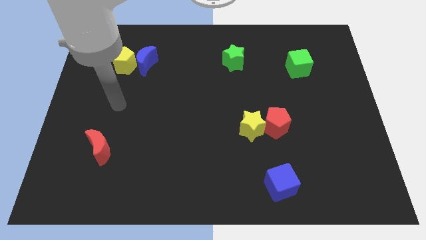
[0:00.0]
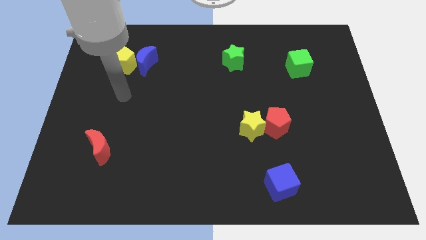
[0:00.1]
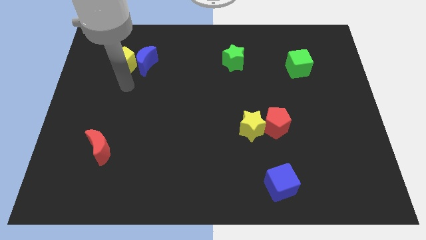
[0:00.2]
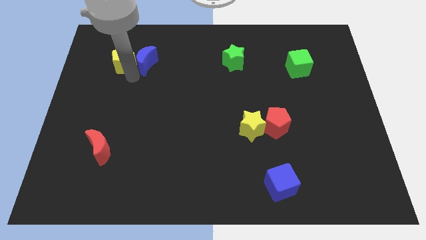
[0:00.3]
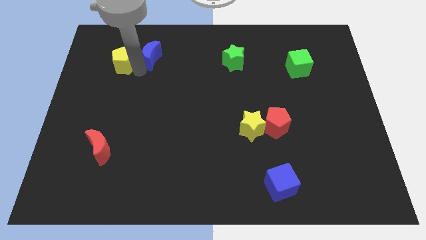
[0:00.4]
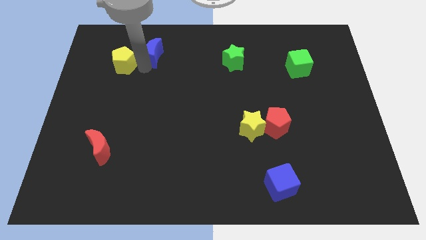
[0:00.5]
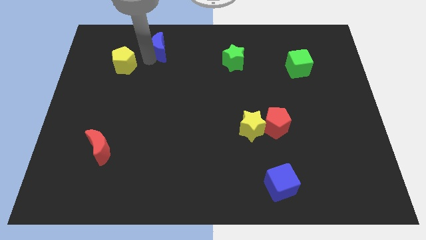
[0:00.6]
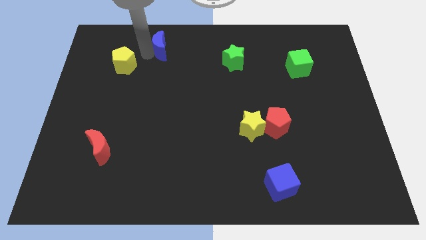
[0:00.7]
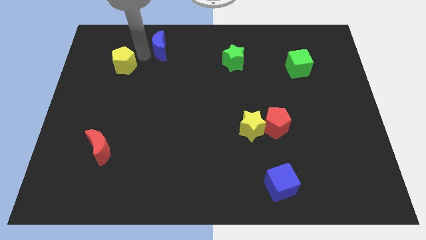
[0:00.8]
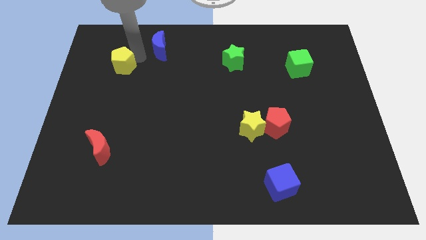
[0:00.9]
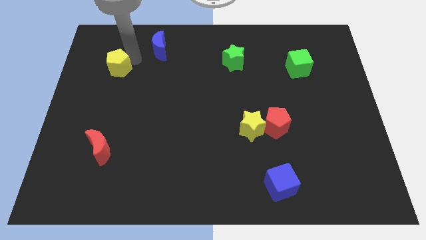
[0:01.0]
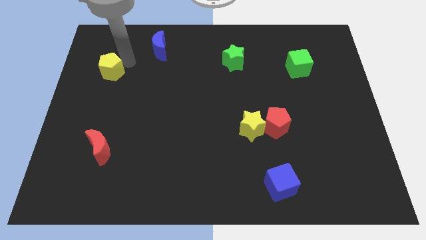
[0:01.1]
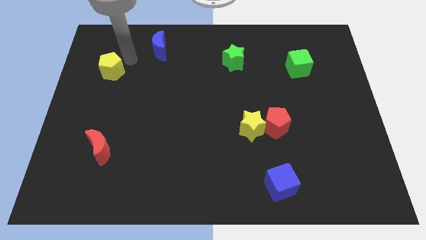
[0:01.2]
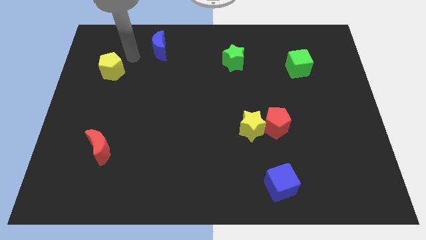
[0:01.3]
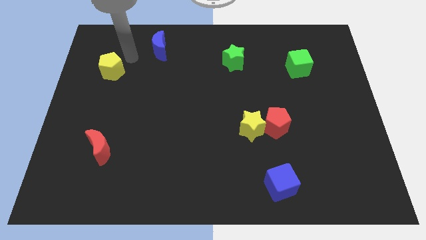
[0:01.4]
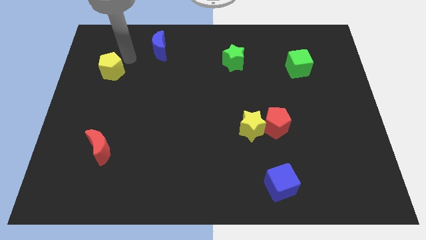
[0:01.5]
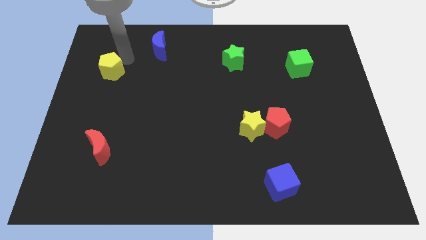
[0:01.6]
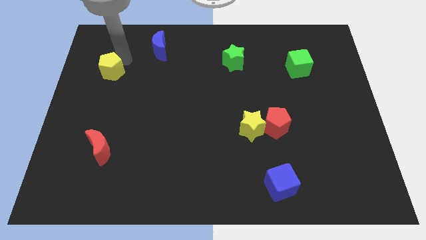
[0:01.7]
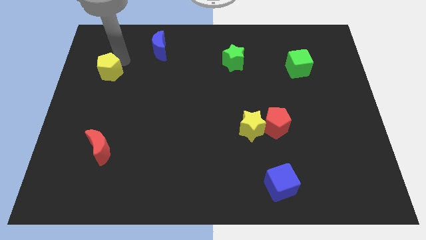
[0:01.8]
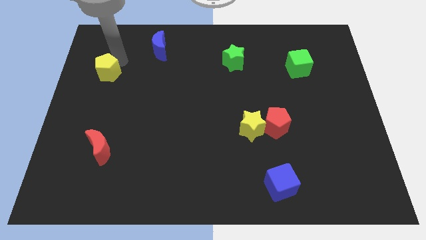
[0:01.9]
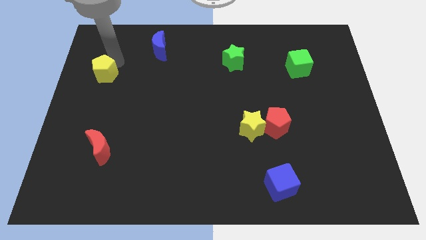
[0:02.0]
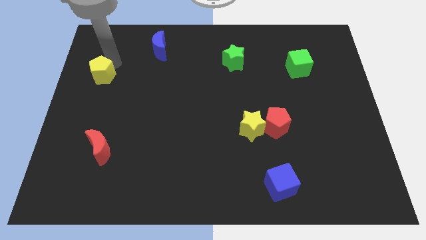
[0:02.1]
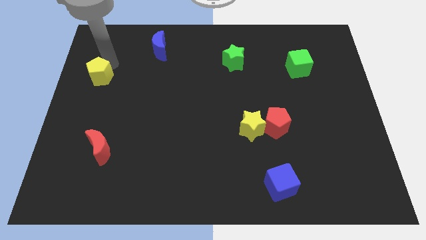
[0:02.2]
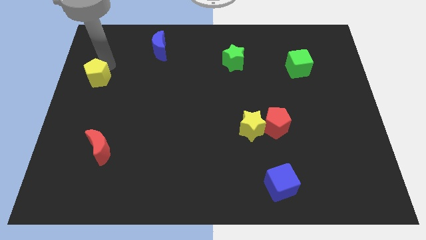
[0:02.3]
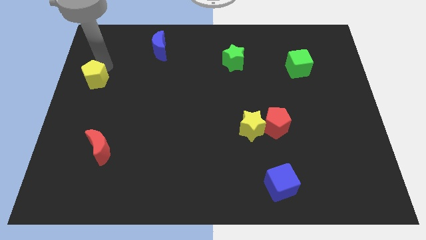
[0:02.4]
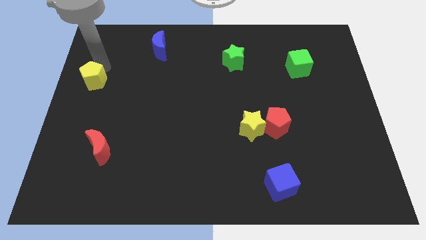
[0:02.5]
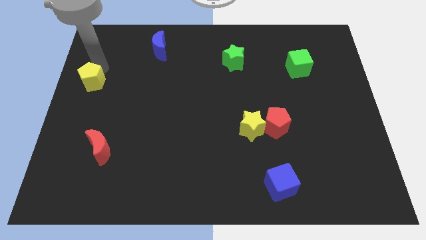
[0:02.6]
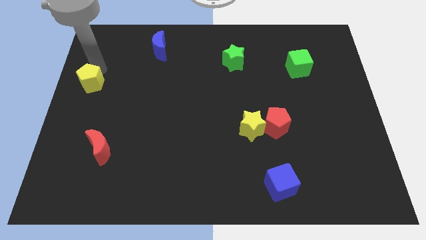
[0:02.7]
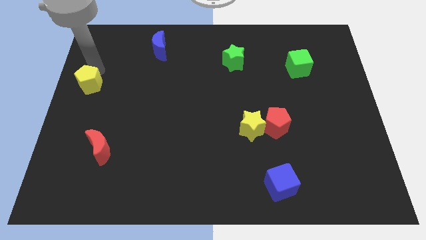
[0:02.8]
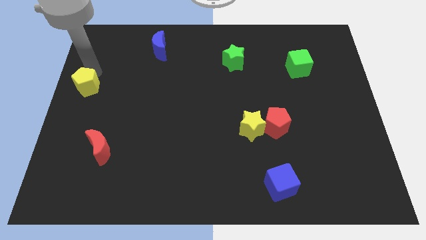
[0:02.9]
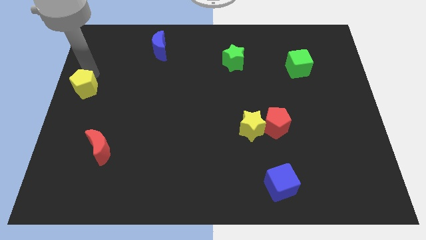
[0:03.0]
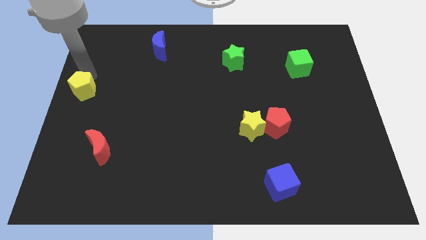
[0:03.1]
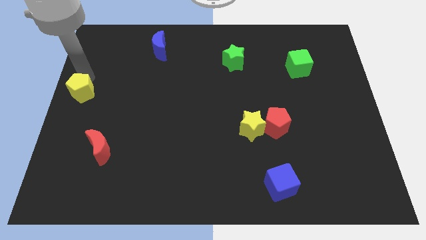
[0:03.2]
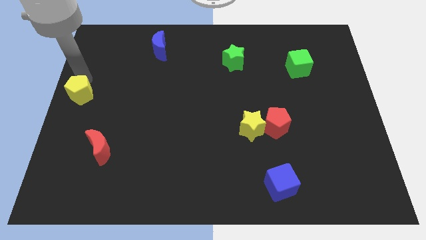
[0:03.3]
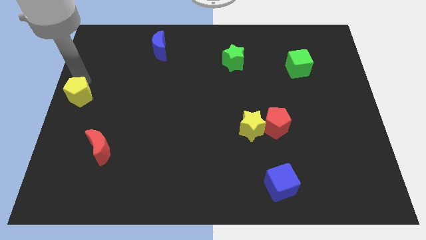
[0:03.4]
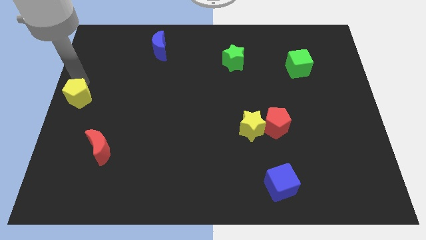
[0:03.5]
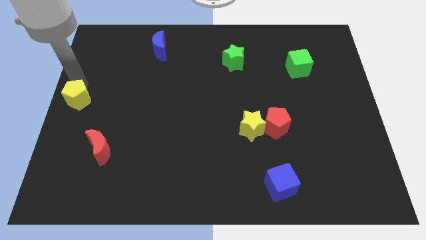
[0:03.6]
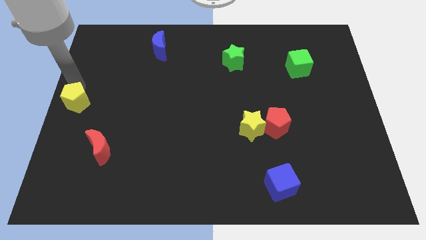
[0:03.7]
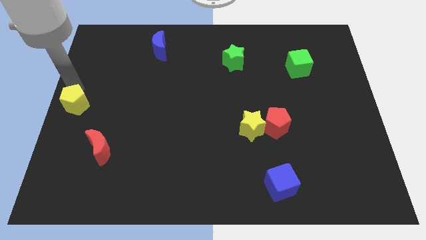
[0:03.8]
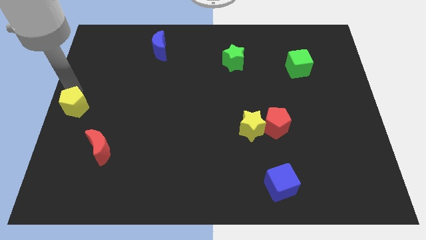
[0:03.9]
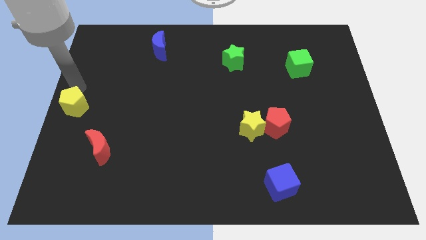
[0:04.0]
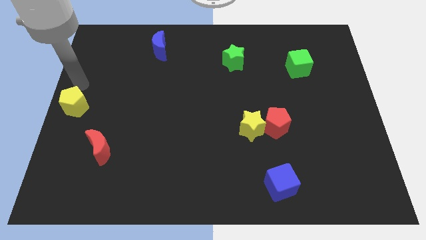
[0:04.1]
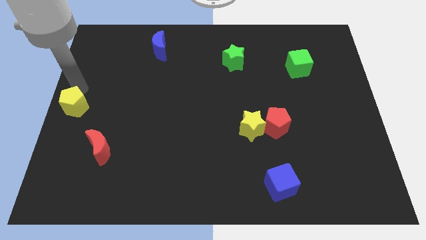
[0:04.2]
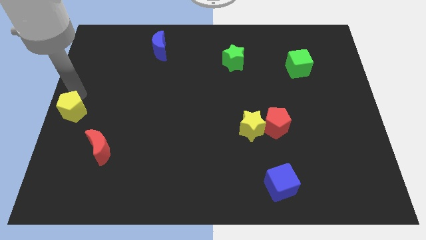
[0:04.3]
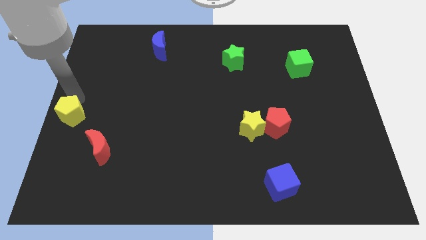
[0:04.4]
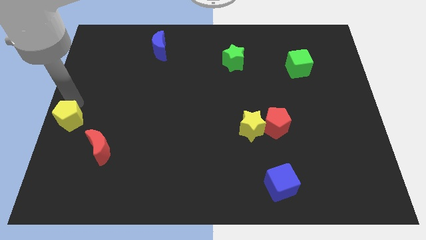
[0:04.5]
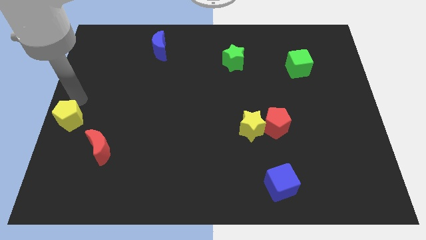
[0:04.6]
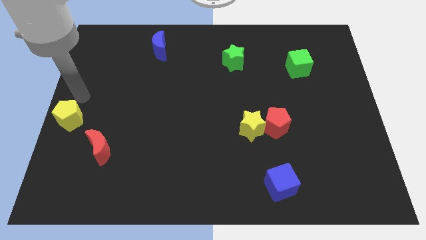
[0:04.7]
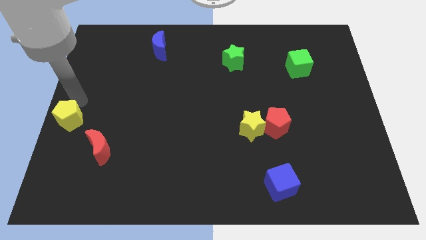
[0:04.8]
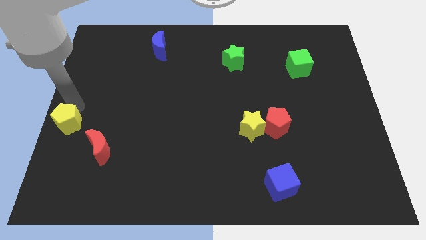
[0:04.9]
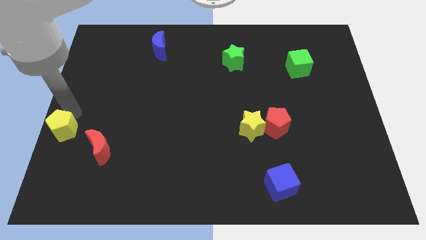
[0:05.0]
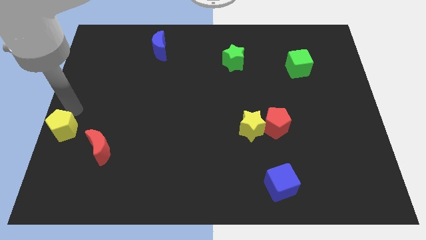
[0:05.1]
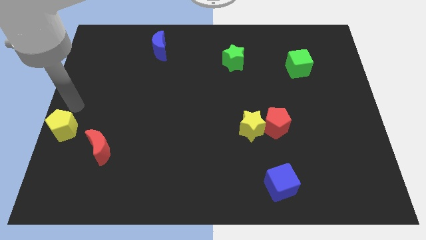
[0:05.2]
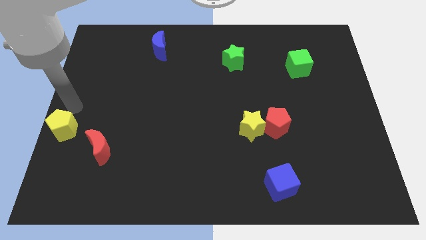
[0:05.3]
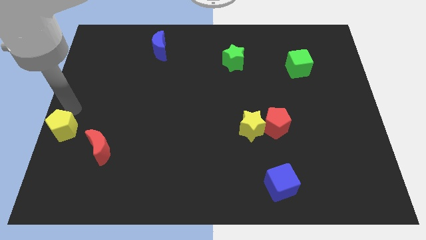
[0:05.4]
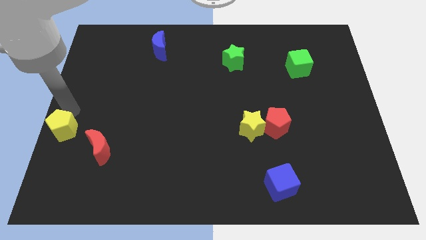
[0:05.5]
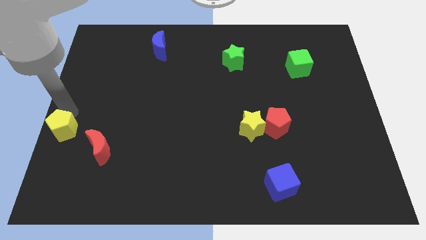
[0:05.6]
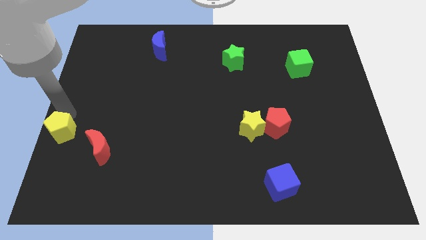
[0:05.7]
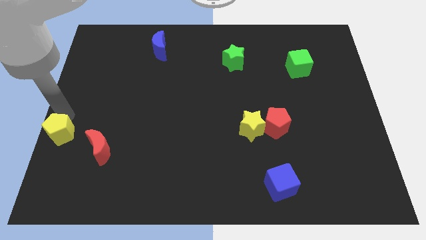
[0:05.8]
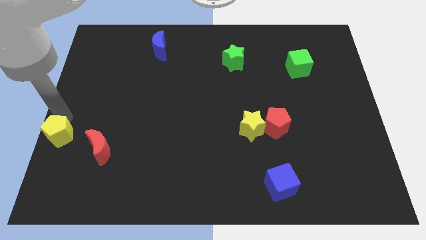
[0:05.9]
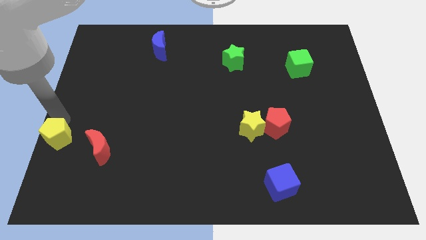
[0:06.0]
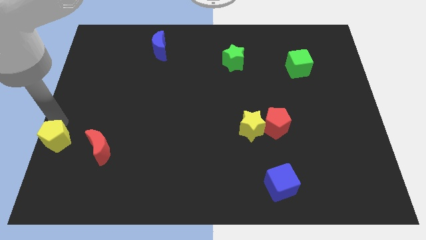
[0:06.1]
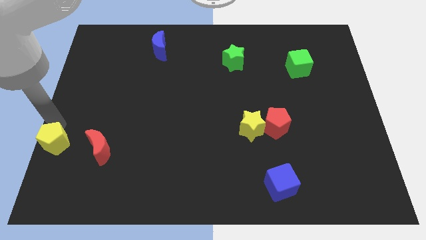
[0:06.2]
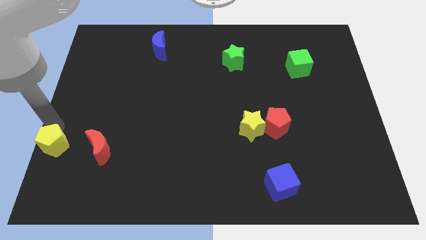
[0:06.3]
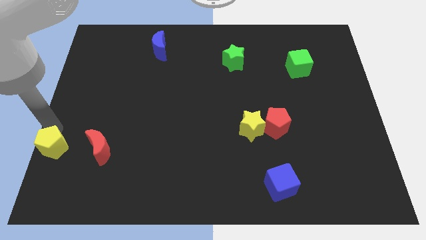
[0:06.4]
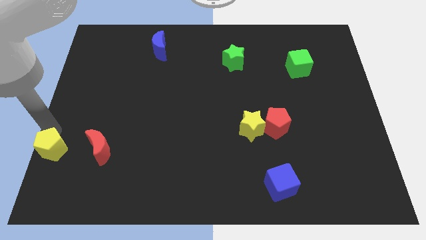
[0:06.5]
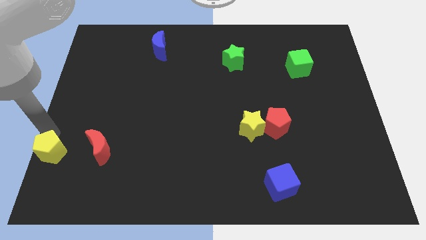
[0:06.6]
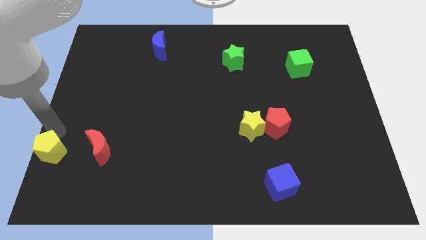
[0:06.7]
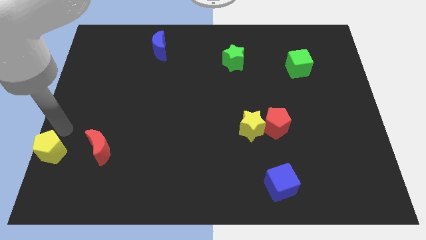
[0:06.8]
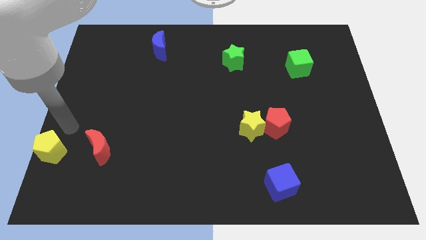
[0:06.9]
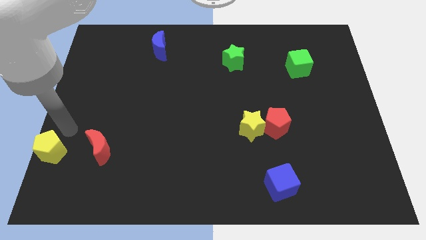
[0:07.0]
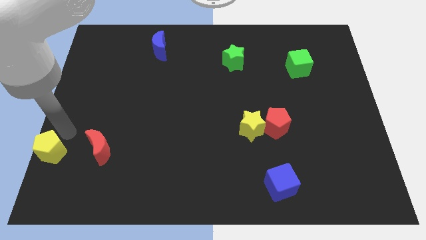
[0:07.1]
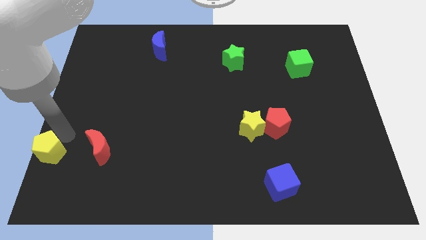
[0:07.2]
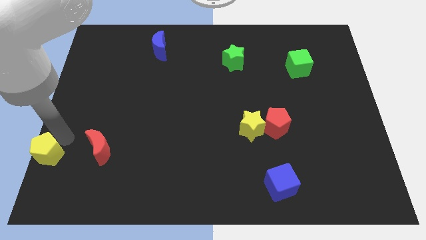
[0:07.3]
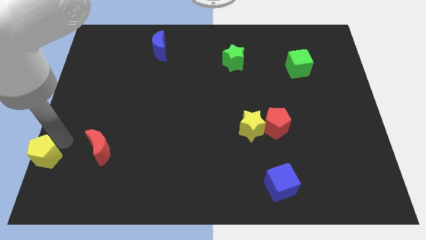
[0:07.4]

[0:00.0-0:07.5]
move the yellow pentagon to the lower left corner
